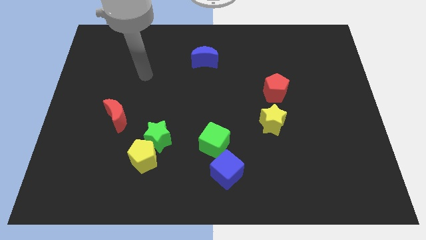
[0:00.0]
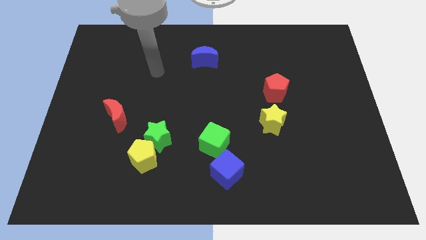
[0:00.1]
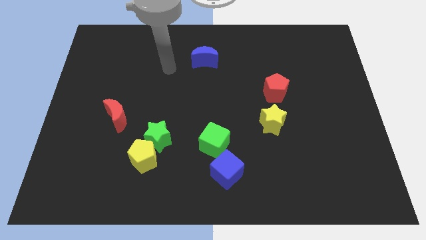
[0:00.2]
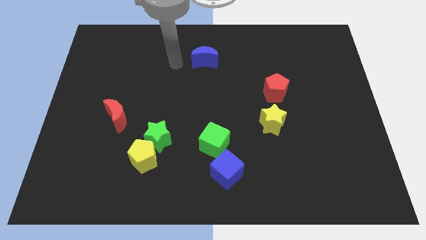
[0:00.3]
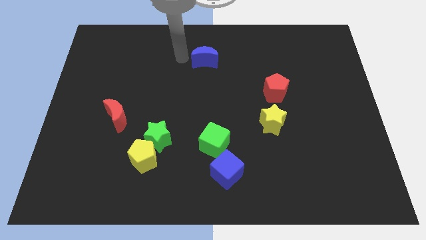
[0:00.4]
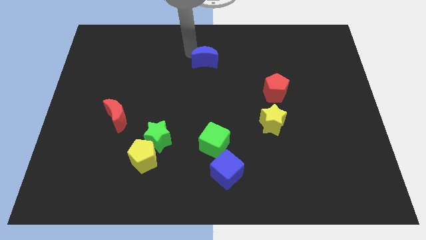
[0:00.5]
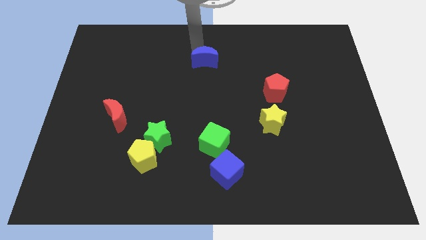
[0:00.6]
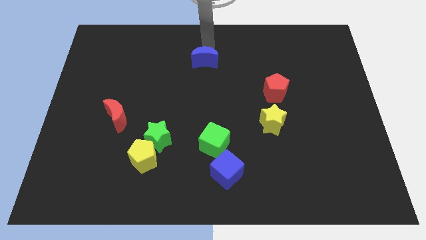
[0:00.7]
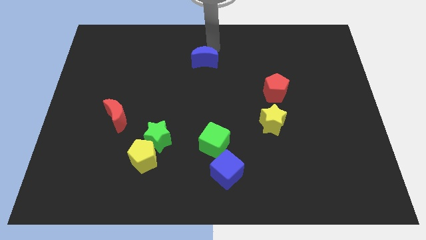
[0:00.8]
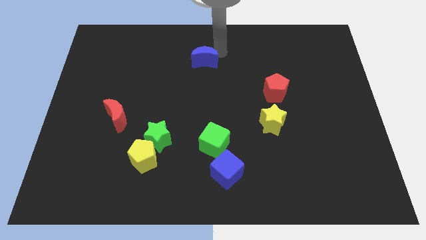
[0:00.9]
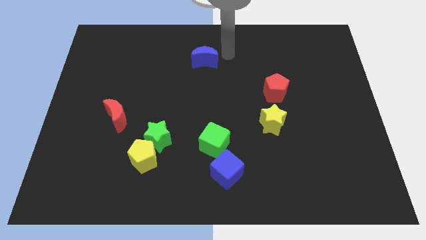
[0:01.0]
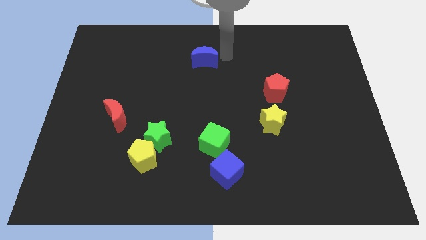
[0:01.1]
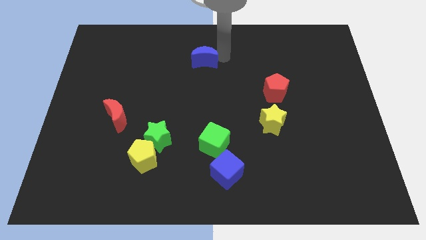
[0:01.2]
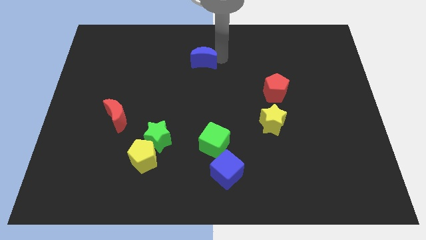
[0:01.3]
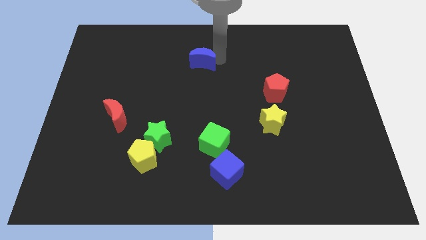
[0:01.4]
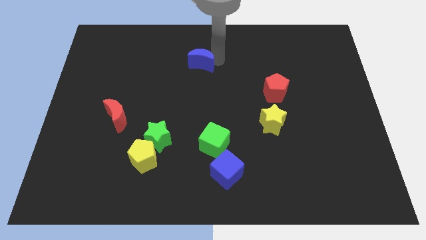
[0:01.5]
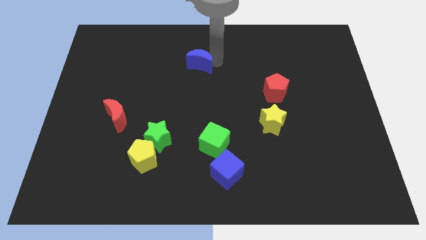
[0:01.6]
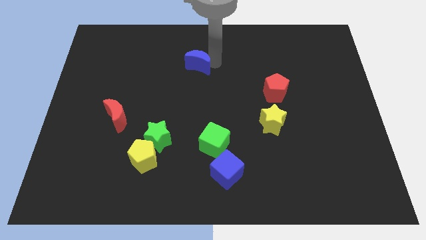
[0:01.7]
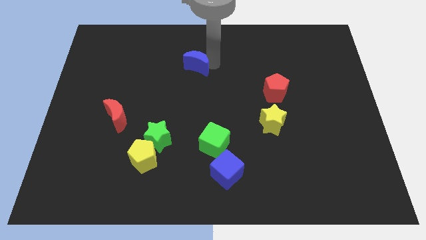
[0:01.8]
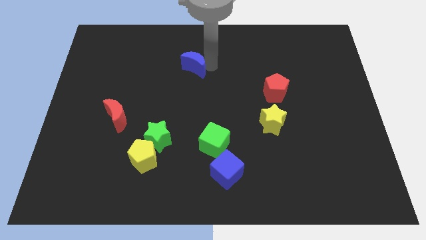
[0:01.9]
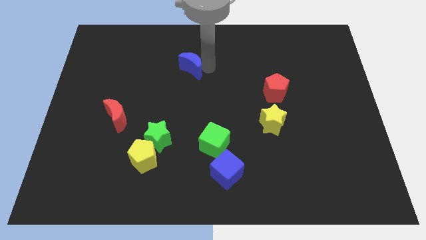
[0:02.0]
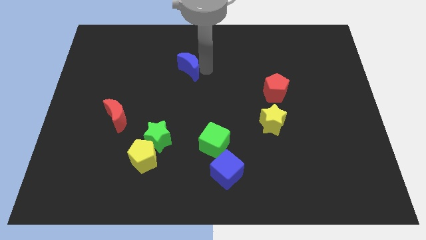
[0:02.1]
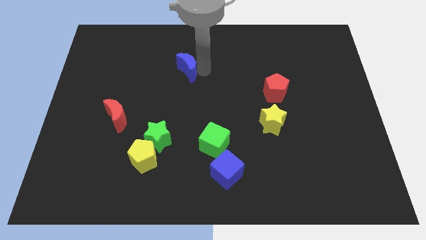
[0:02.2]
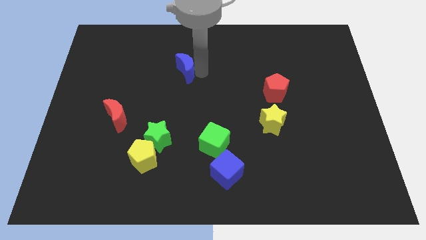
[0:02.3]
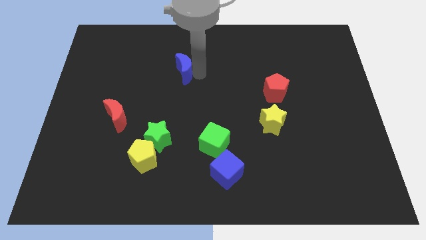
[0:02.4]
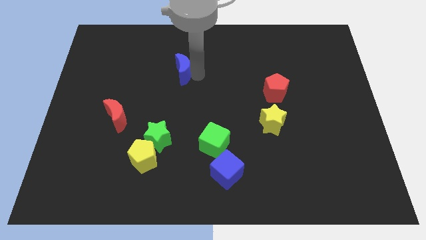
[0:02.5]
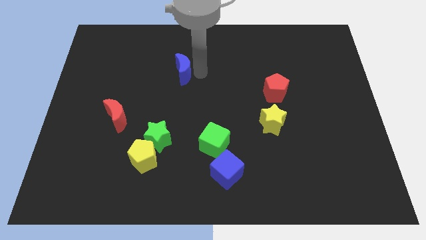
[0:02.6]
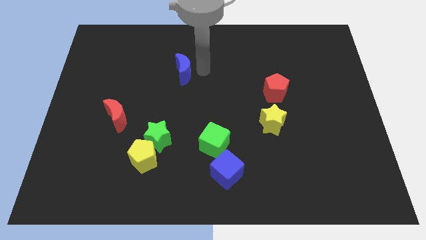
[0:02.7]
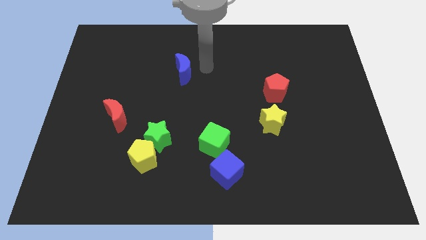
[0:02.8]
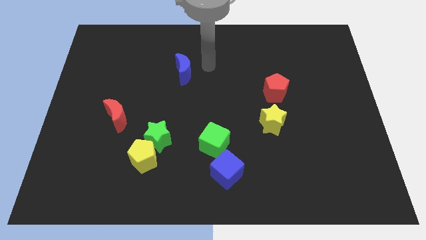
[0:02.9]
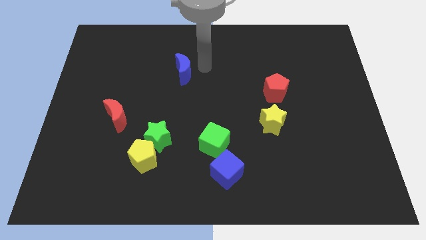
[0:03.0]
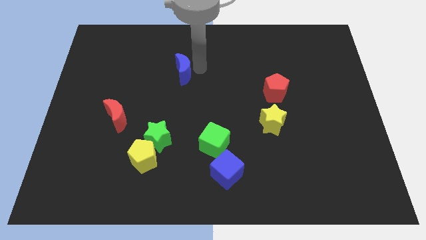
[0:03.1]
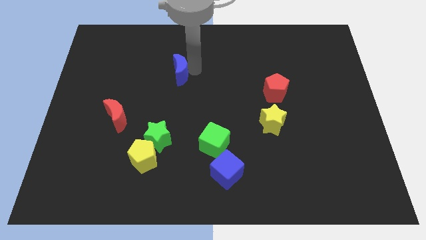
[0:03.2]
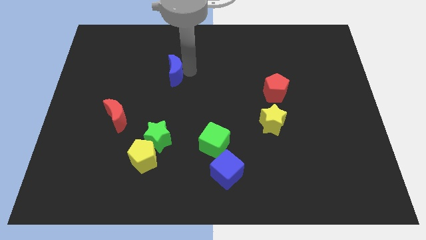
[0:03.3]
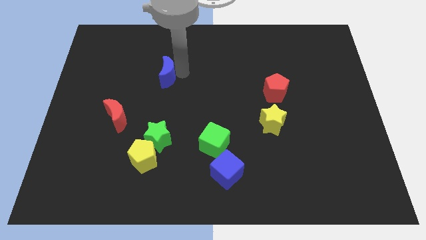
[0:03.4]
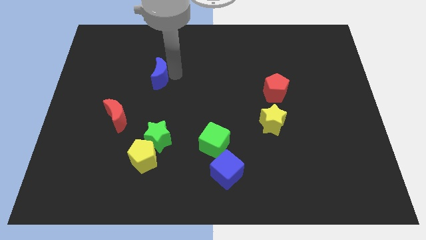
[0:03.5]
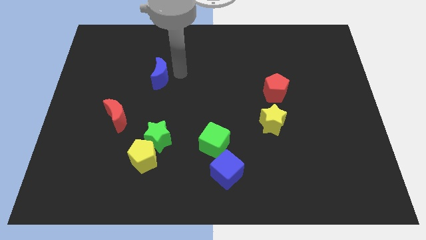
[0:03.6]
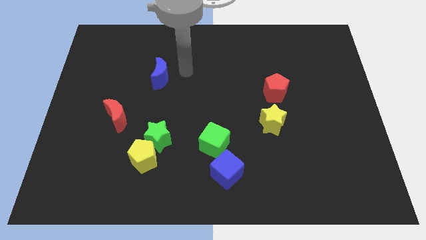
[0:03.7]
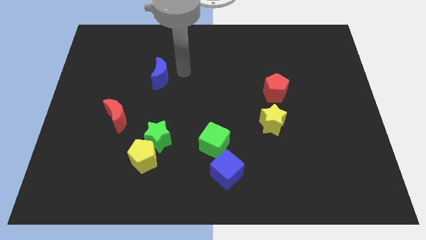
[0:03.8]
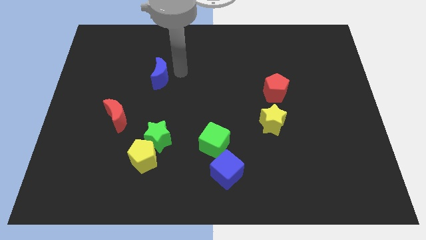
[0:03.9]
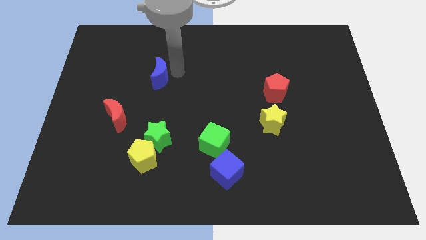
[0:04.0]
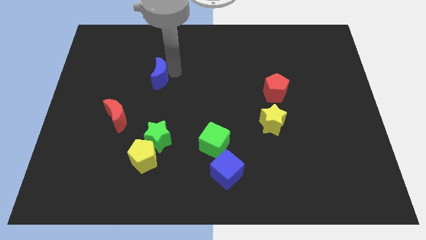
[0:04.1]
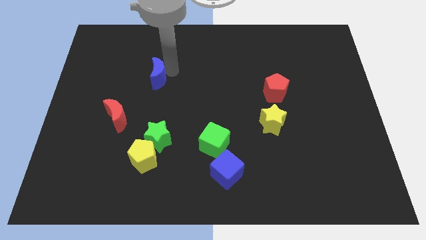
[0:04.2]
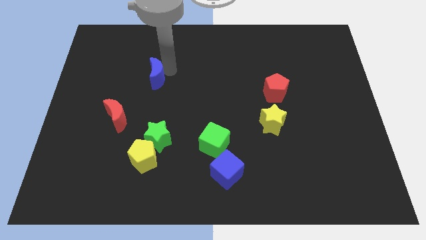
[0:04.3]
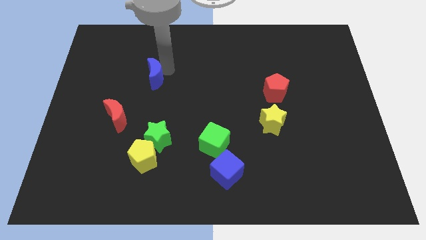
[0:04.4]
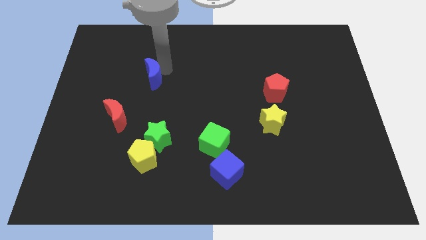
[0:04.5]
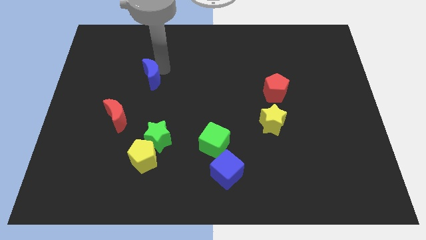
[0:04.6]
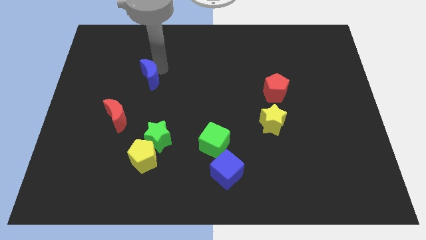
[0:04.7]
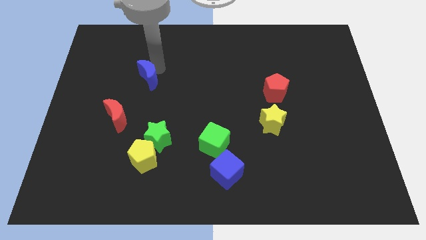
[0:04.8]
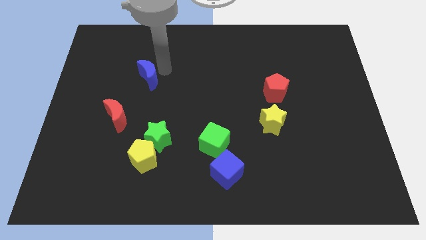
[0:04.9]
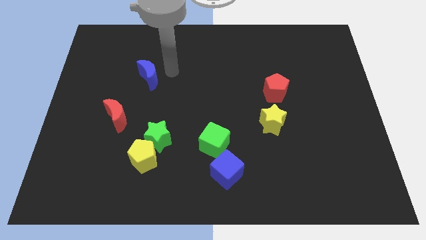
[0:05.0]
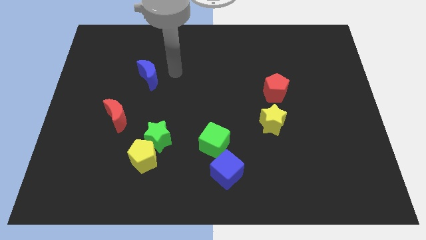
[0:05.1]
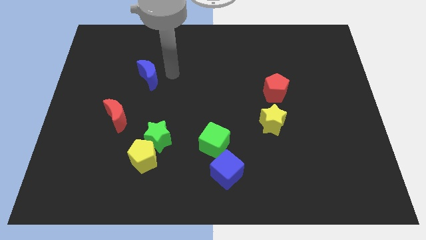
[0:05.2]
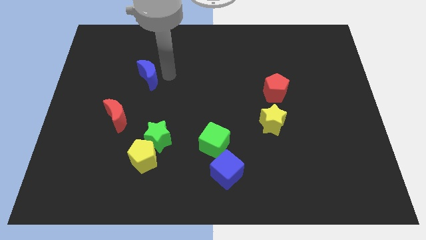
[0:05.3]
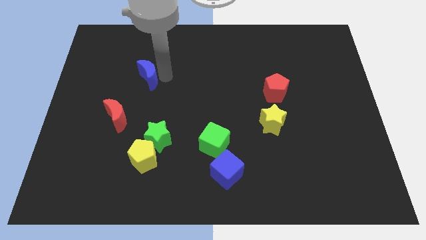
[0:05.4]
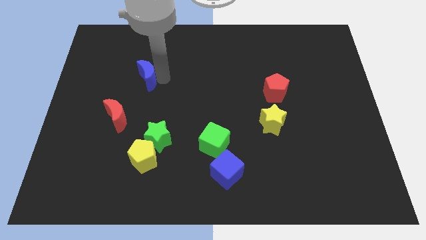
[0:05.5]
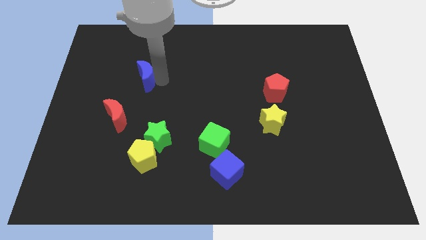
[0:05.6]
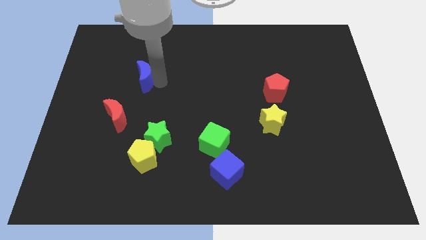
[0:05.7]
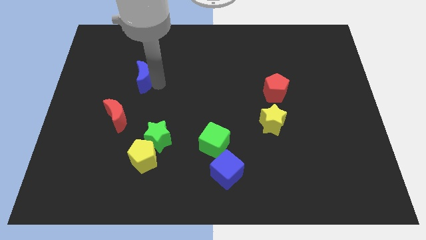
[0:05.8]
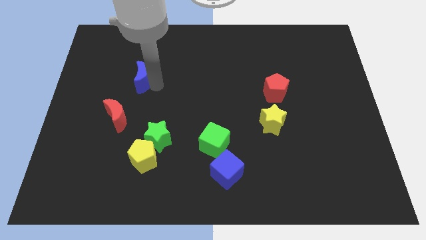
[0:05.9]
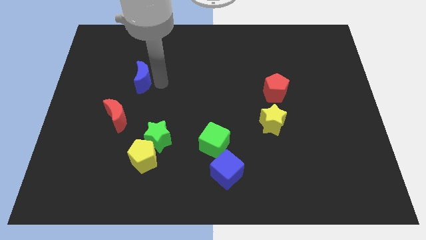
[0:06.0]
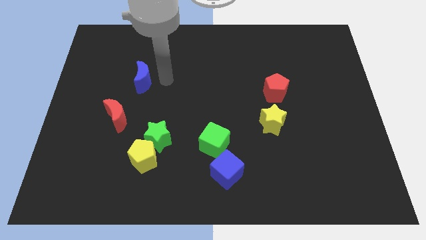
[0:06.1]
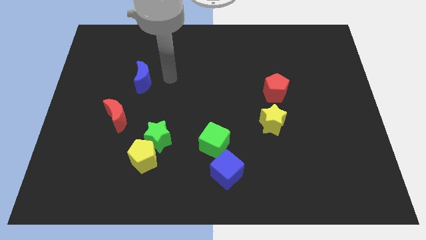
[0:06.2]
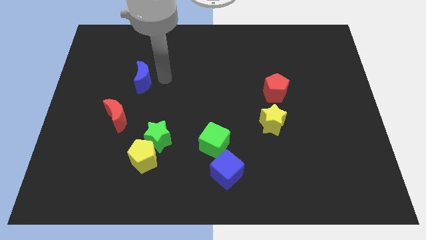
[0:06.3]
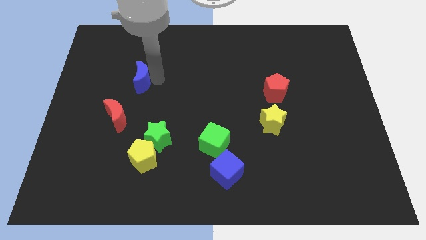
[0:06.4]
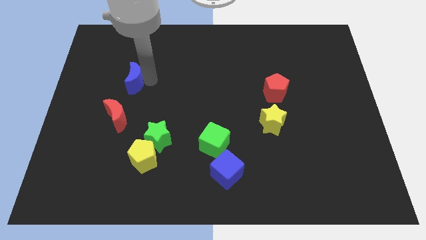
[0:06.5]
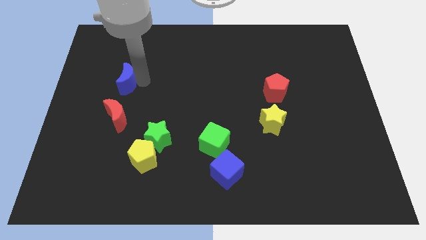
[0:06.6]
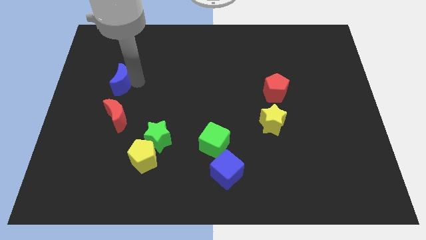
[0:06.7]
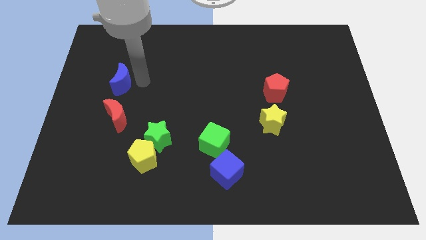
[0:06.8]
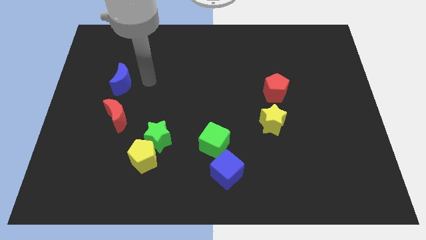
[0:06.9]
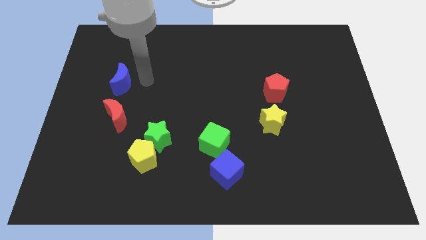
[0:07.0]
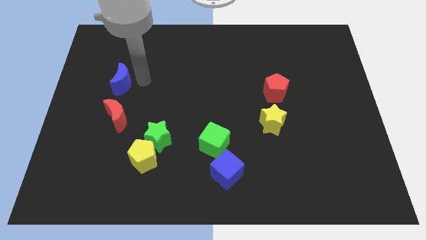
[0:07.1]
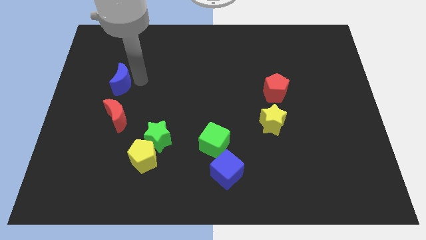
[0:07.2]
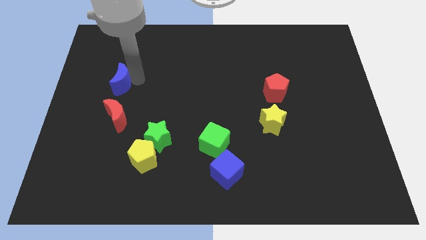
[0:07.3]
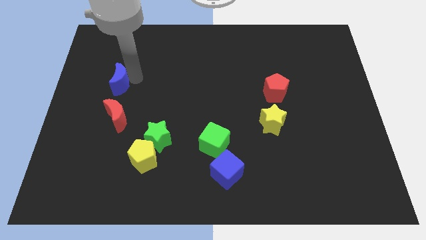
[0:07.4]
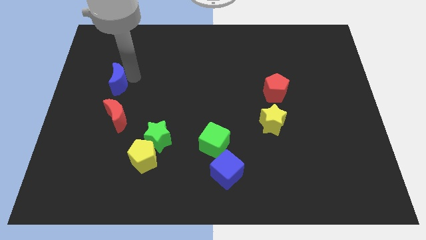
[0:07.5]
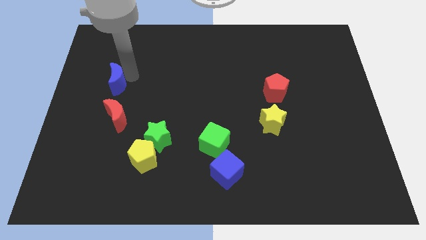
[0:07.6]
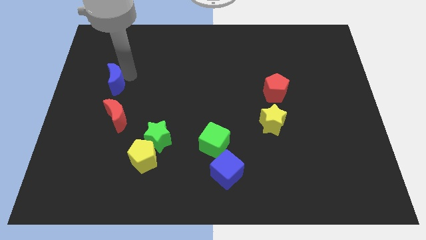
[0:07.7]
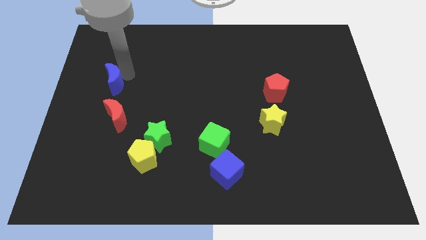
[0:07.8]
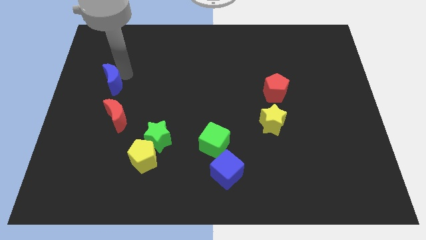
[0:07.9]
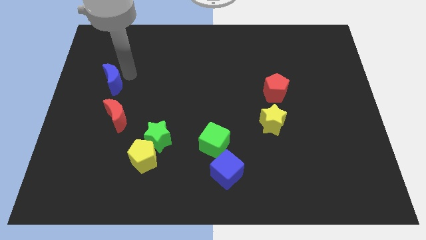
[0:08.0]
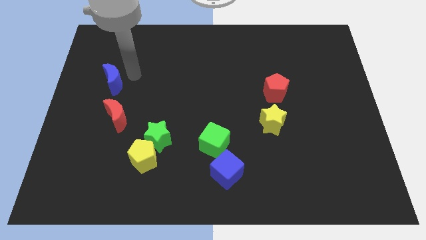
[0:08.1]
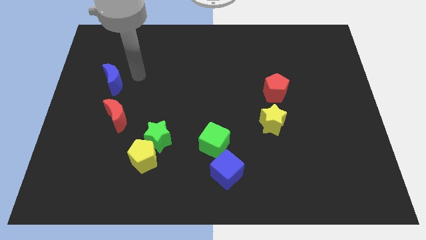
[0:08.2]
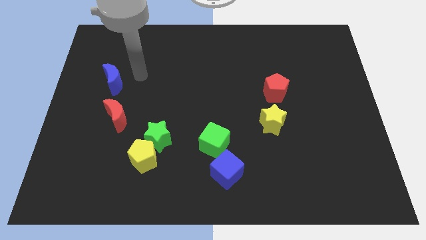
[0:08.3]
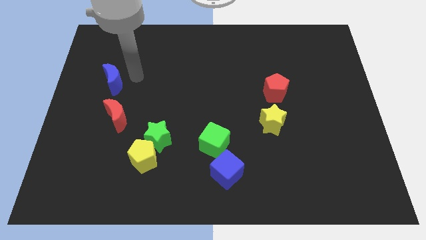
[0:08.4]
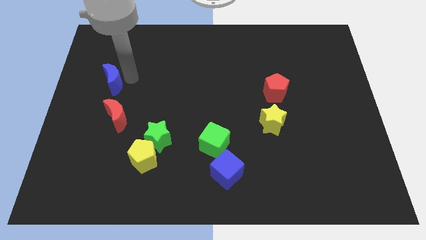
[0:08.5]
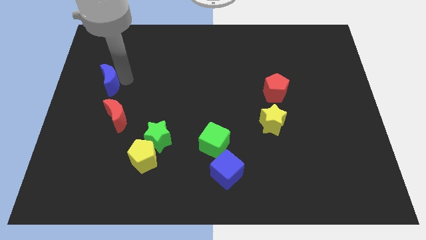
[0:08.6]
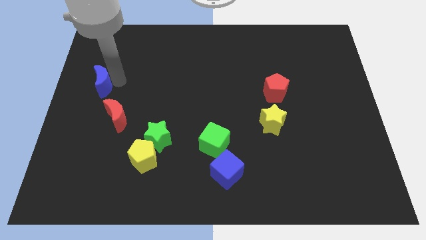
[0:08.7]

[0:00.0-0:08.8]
put the blue moon to the left side
